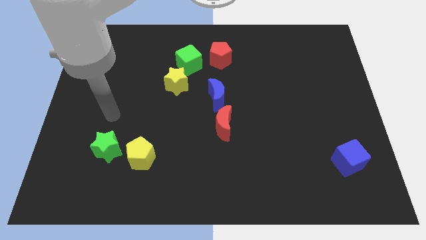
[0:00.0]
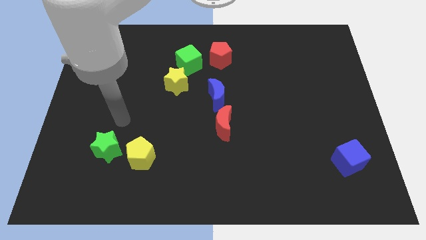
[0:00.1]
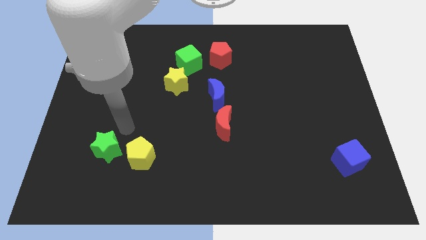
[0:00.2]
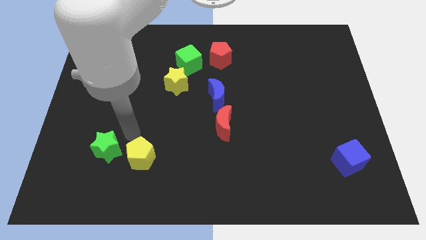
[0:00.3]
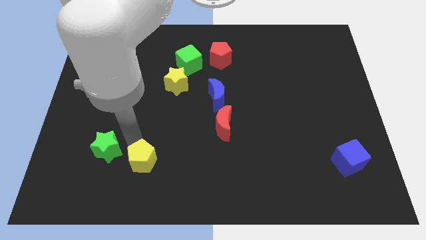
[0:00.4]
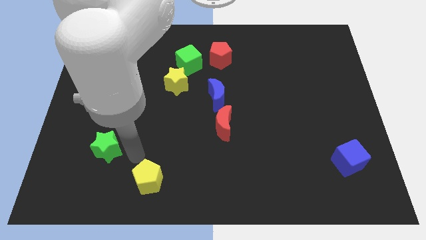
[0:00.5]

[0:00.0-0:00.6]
pull the green star apart from the yellow pentagon

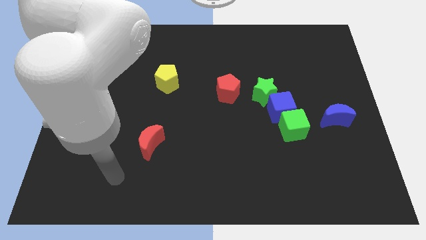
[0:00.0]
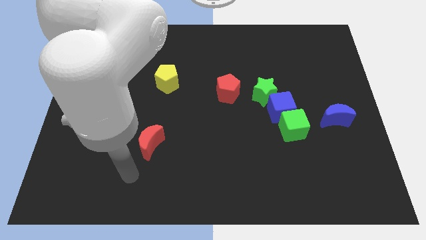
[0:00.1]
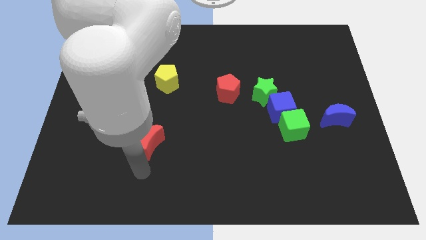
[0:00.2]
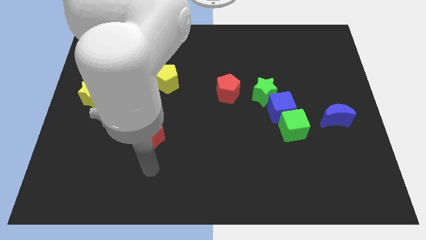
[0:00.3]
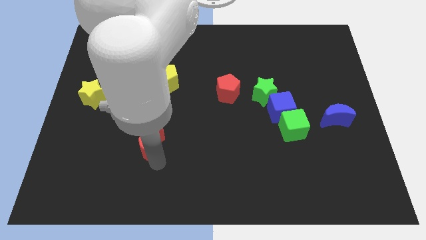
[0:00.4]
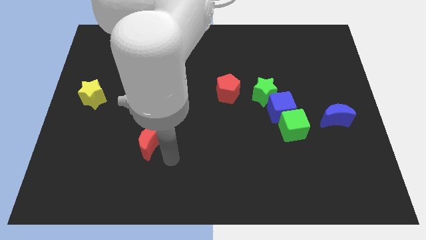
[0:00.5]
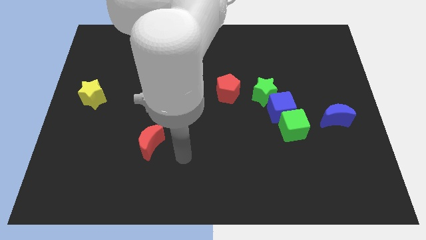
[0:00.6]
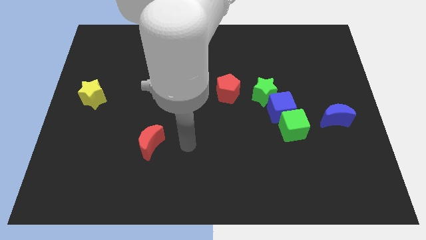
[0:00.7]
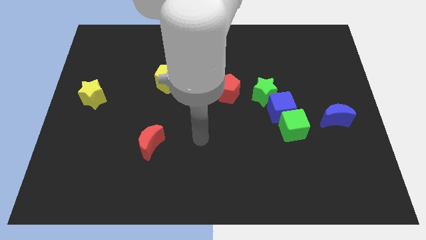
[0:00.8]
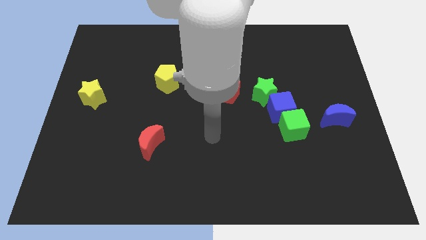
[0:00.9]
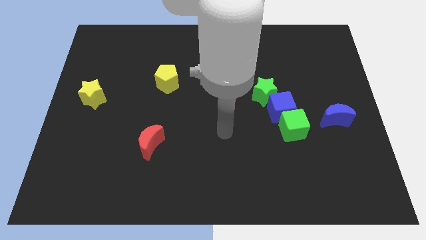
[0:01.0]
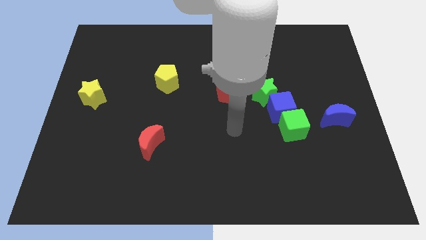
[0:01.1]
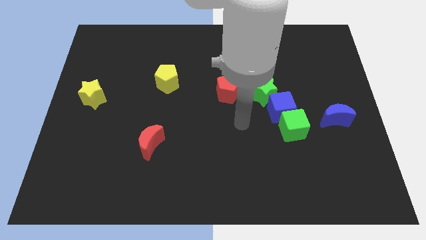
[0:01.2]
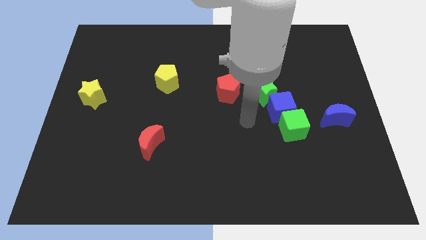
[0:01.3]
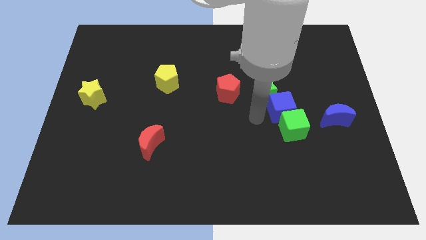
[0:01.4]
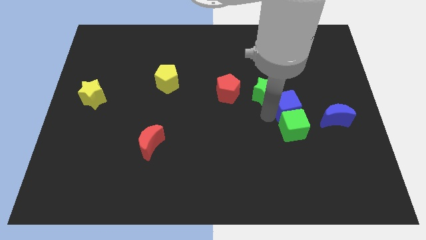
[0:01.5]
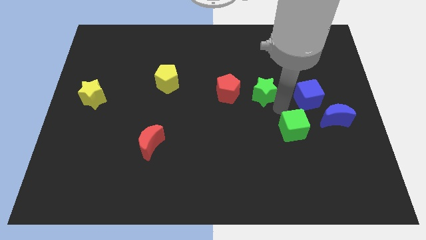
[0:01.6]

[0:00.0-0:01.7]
pull the green cube apart from the blue cube

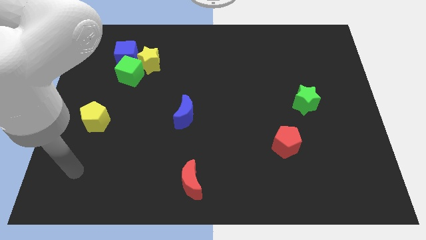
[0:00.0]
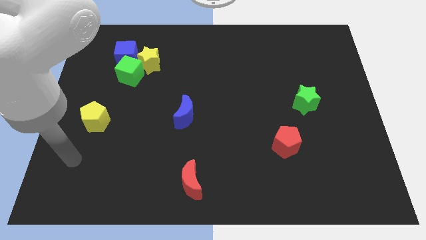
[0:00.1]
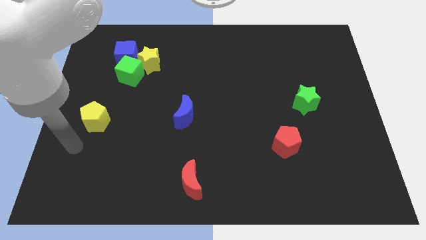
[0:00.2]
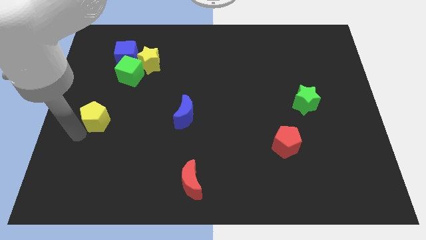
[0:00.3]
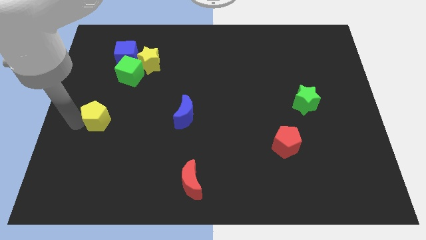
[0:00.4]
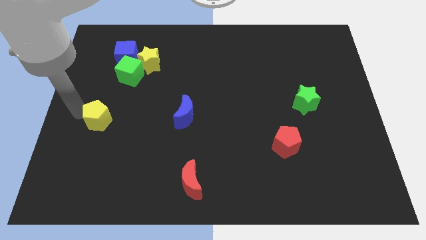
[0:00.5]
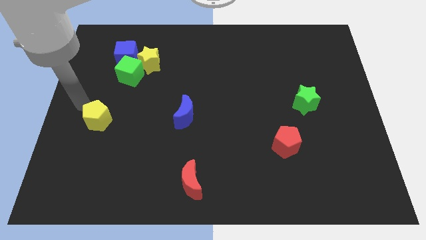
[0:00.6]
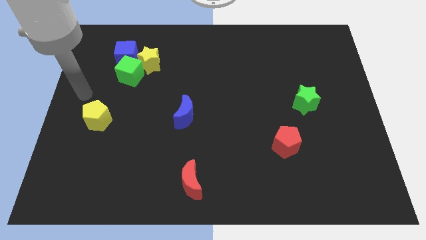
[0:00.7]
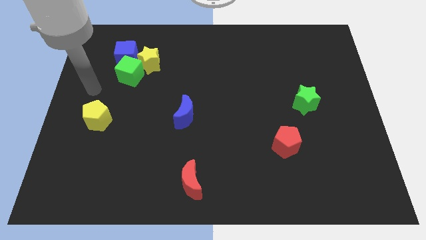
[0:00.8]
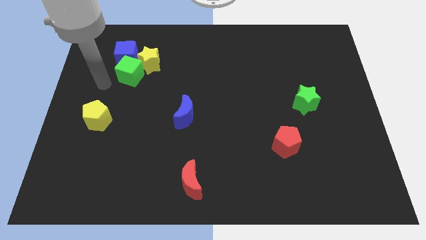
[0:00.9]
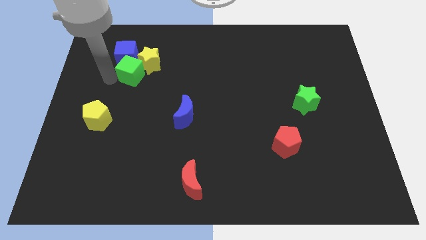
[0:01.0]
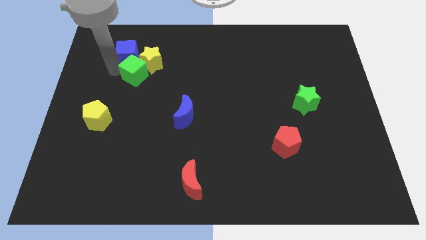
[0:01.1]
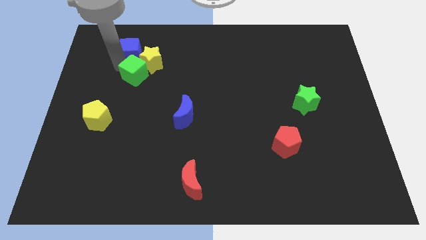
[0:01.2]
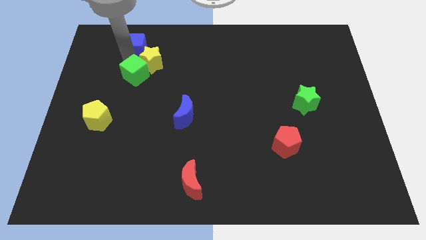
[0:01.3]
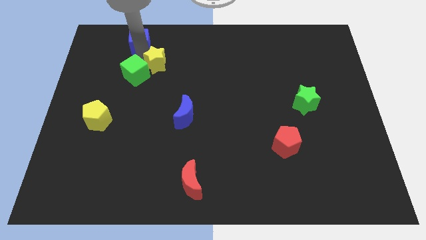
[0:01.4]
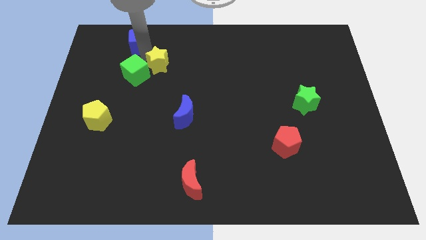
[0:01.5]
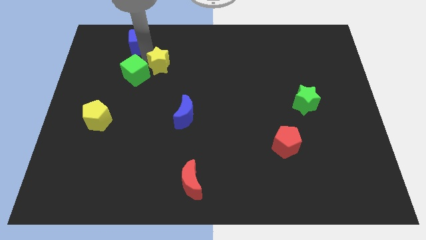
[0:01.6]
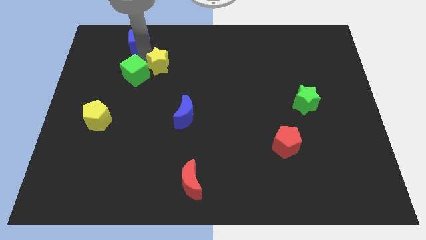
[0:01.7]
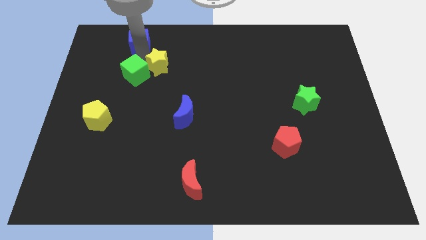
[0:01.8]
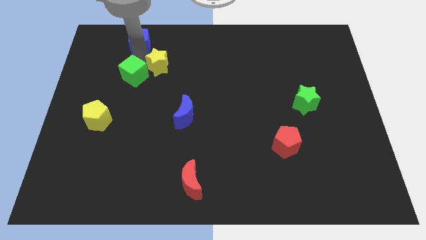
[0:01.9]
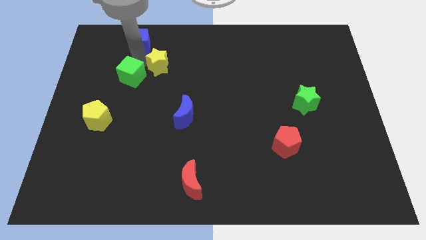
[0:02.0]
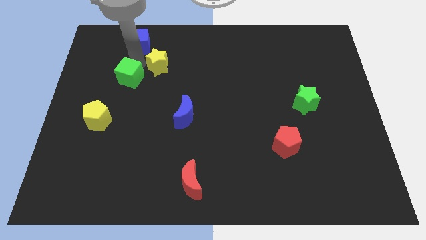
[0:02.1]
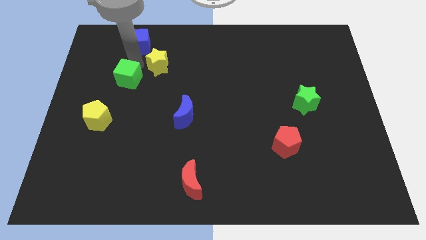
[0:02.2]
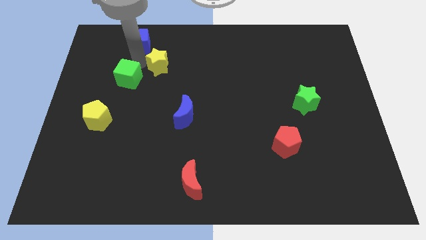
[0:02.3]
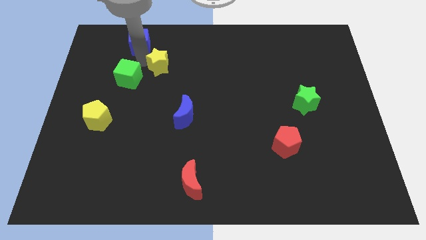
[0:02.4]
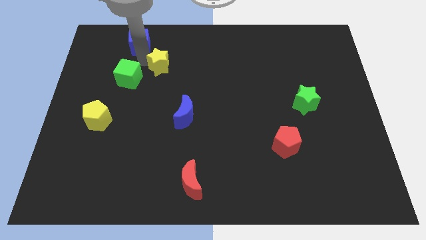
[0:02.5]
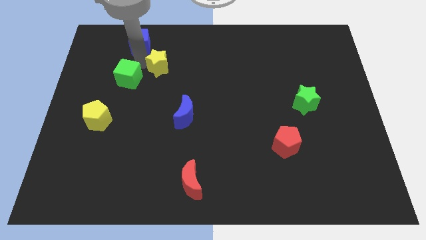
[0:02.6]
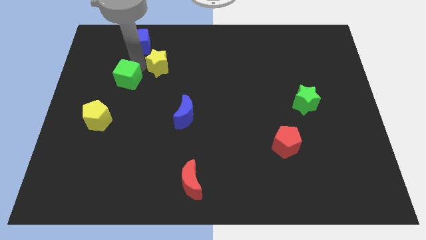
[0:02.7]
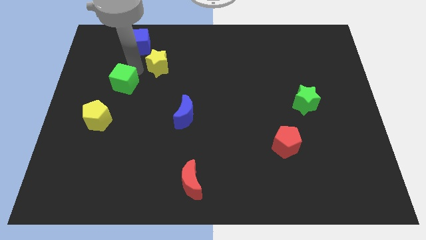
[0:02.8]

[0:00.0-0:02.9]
separate the green cube from the yellow star and blue cube

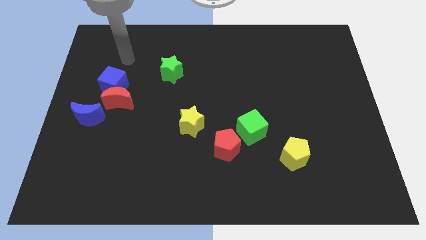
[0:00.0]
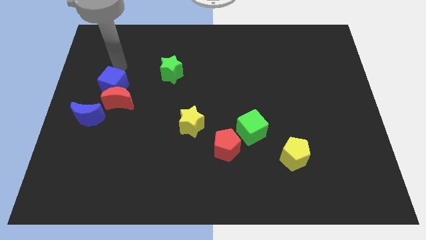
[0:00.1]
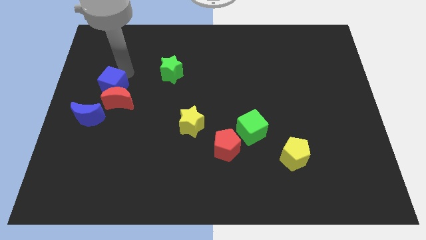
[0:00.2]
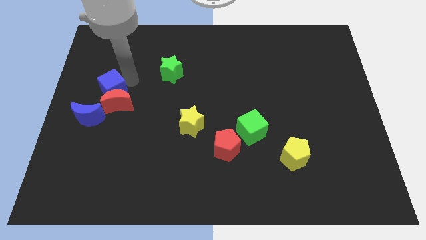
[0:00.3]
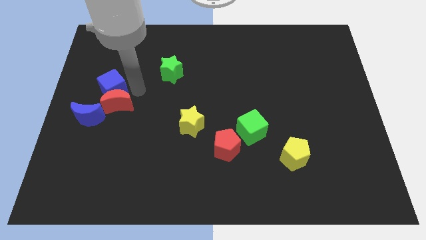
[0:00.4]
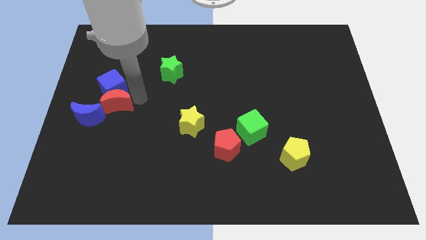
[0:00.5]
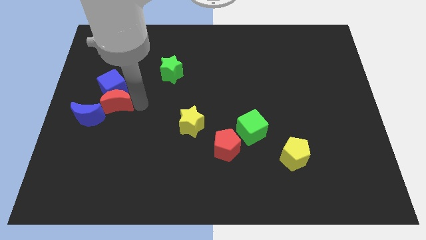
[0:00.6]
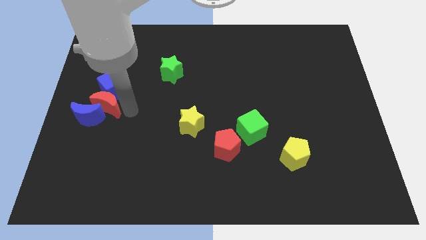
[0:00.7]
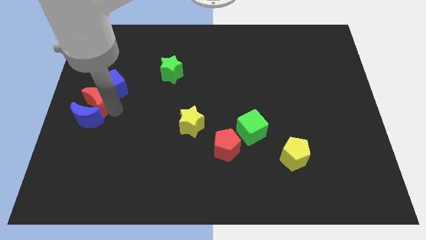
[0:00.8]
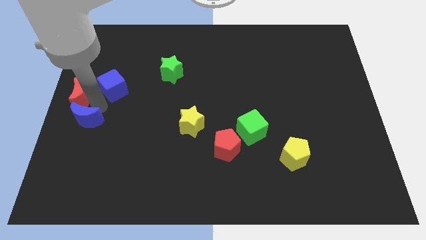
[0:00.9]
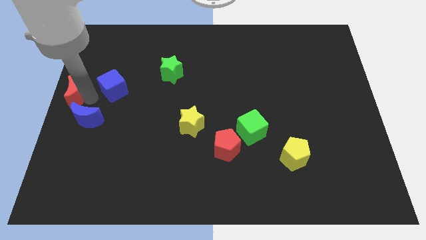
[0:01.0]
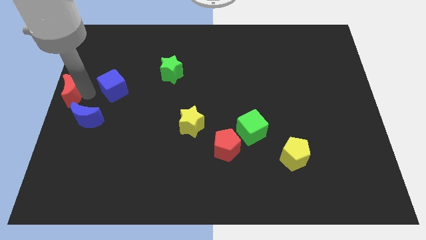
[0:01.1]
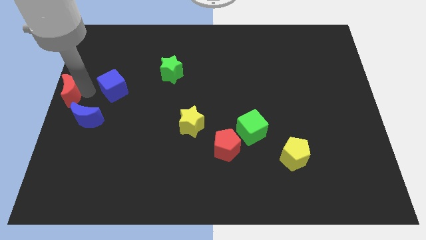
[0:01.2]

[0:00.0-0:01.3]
separate the blue cube from the red moon

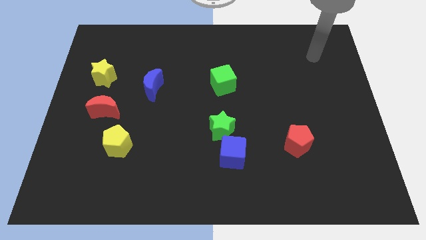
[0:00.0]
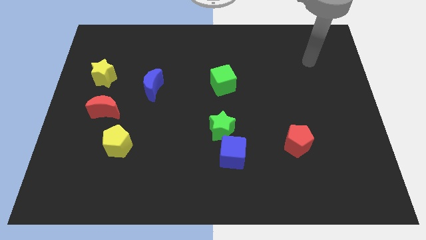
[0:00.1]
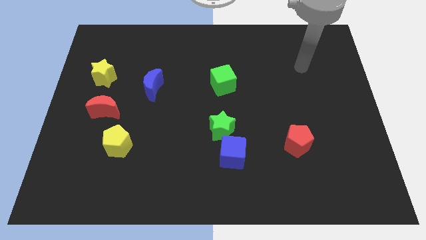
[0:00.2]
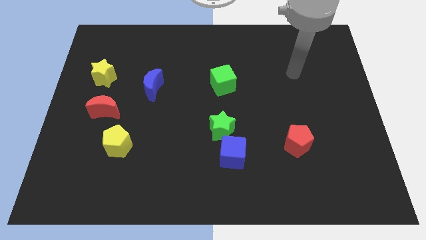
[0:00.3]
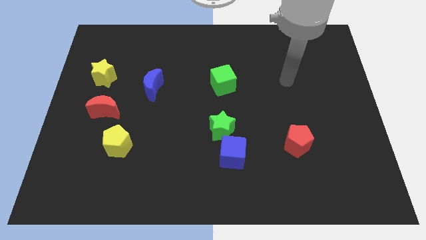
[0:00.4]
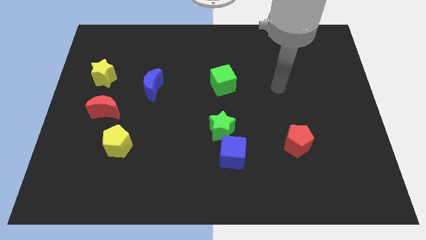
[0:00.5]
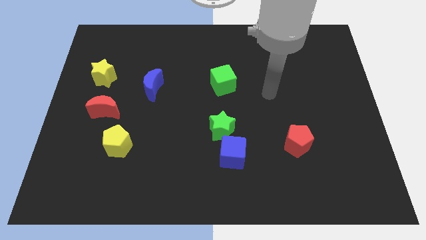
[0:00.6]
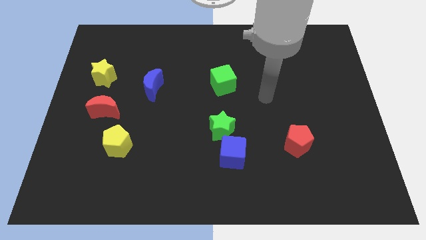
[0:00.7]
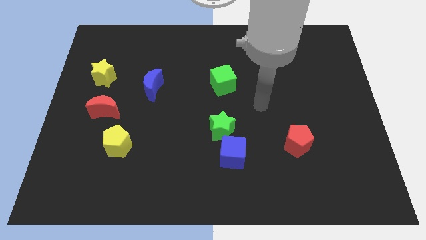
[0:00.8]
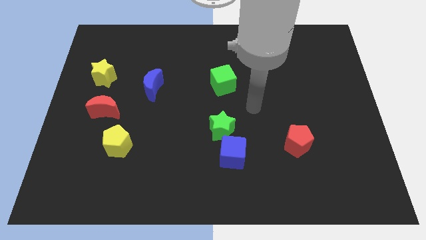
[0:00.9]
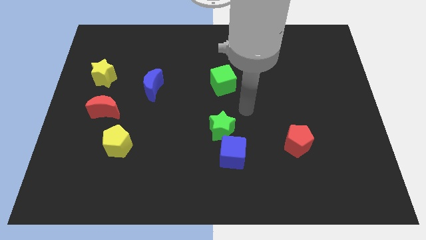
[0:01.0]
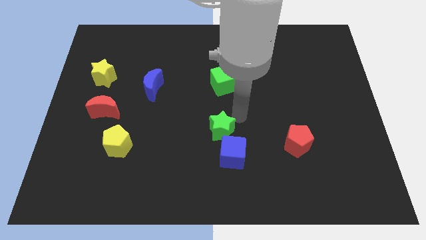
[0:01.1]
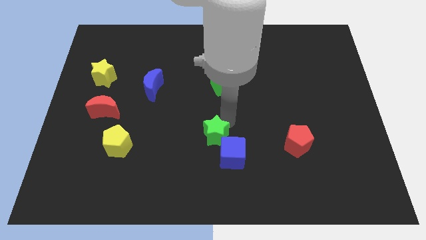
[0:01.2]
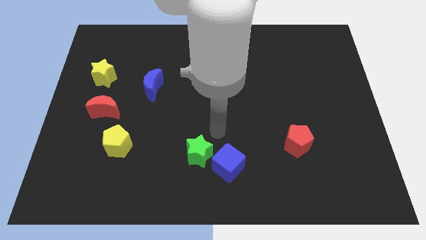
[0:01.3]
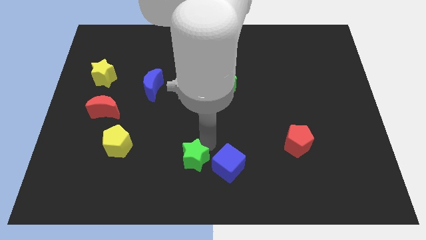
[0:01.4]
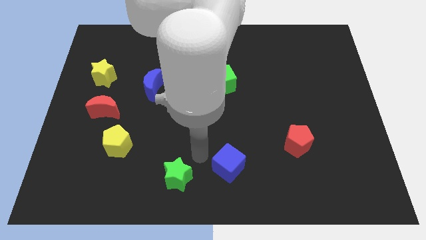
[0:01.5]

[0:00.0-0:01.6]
separate the blue cube from the green star

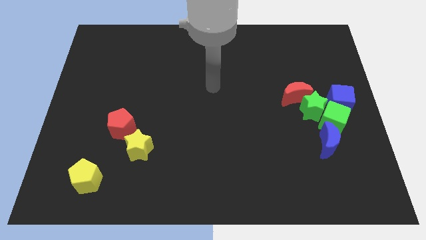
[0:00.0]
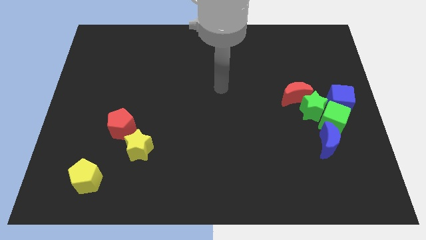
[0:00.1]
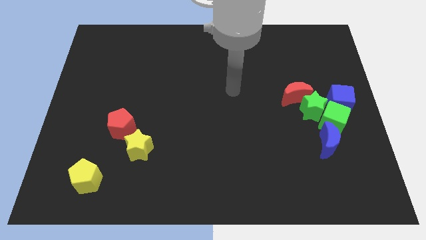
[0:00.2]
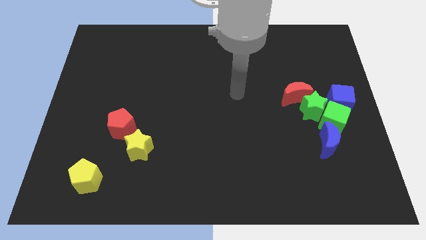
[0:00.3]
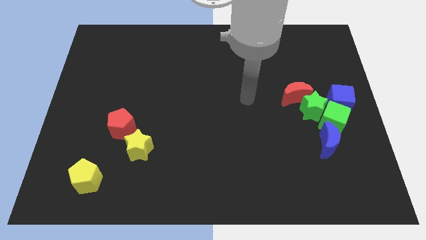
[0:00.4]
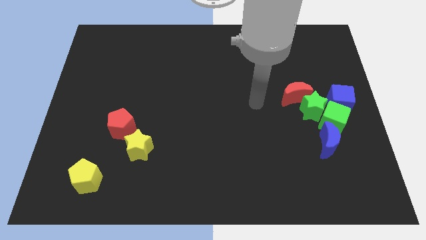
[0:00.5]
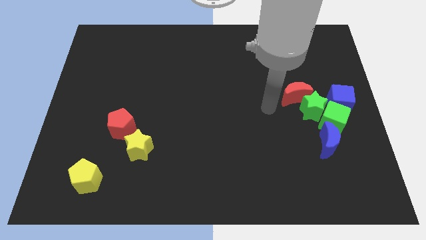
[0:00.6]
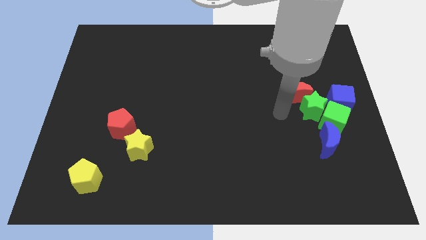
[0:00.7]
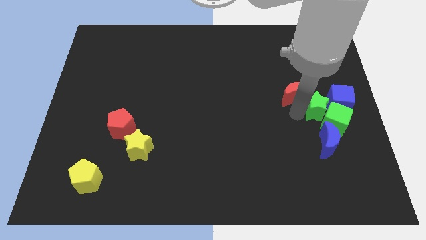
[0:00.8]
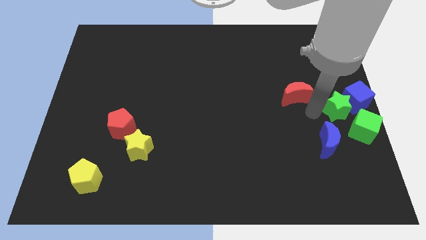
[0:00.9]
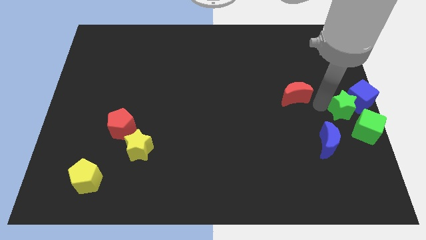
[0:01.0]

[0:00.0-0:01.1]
pull the red moon apart from the green star
